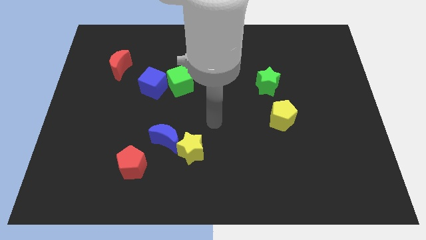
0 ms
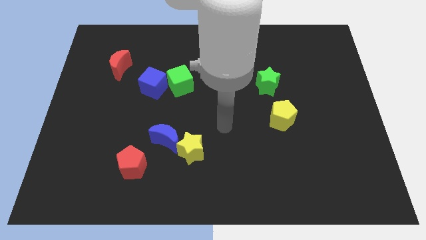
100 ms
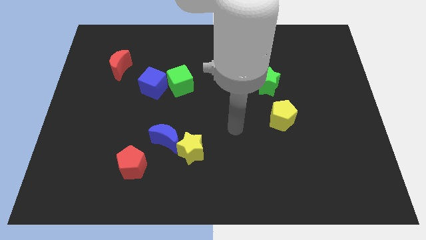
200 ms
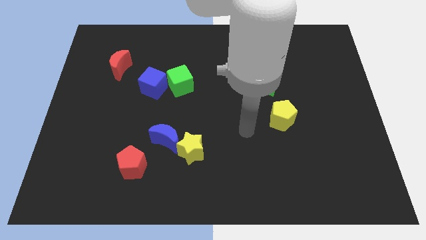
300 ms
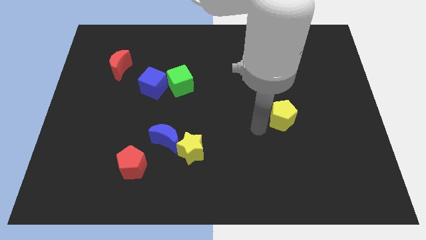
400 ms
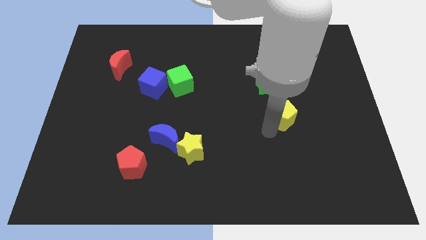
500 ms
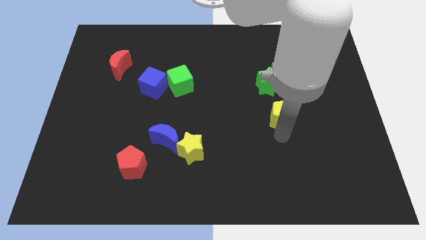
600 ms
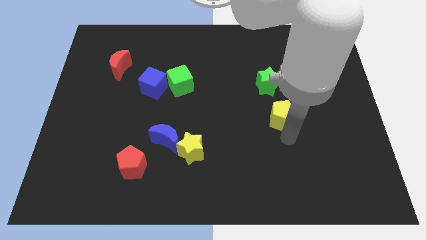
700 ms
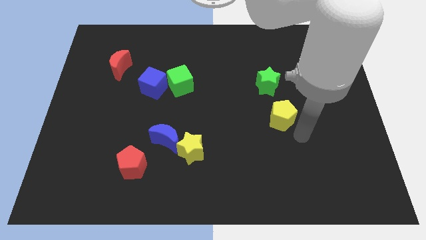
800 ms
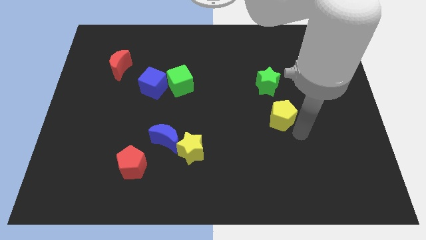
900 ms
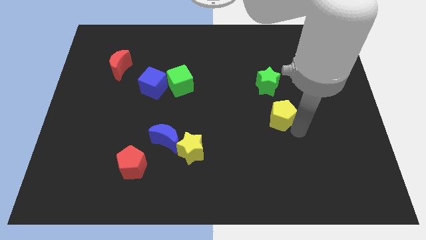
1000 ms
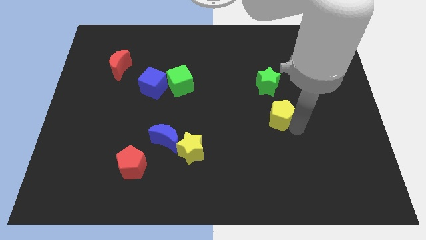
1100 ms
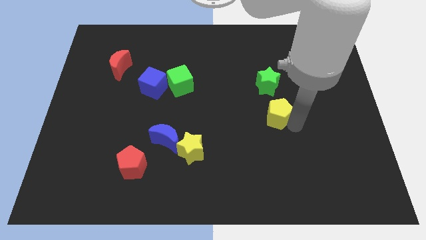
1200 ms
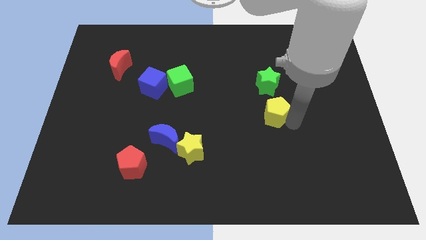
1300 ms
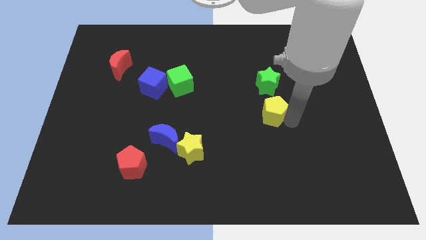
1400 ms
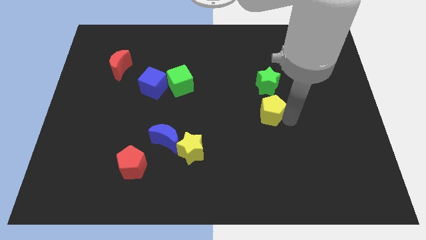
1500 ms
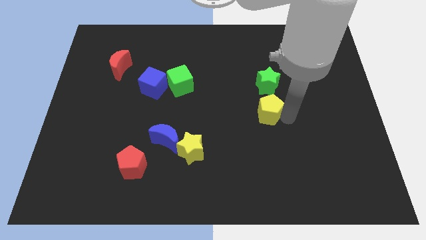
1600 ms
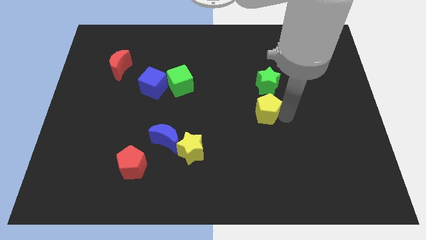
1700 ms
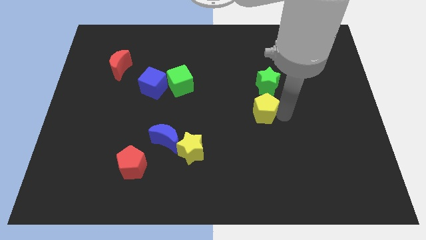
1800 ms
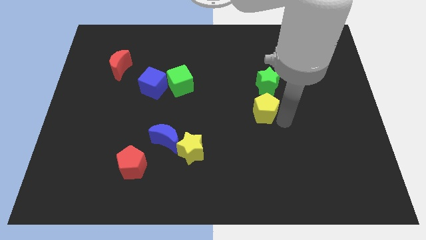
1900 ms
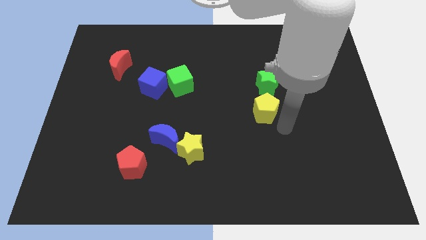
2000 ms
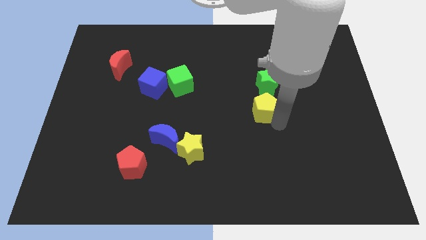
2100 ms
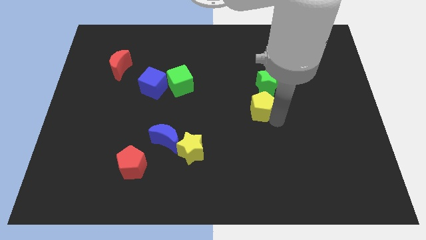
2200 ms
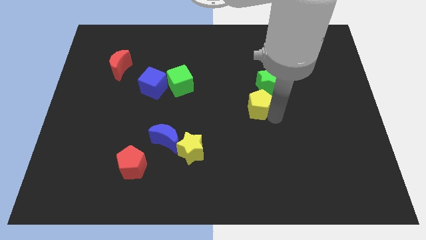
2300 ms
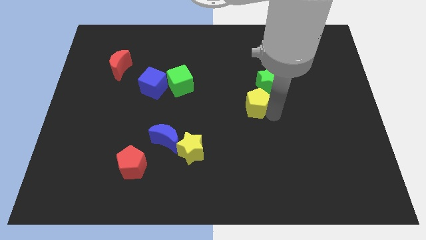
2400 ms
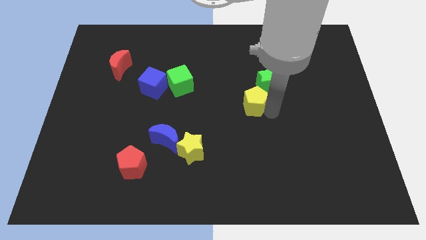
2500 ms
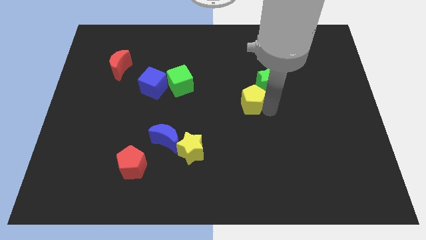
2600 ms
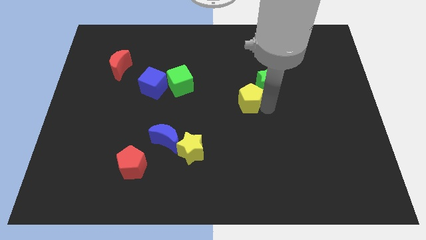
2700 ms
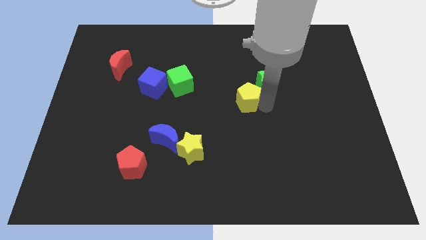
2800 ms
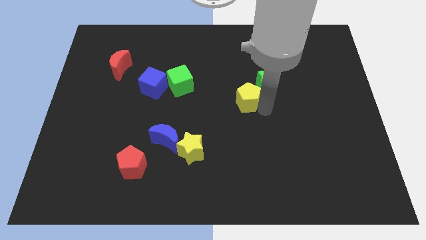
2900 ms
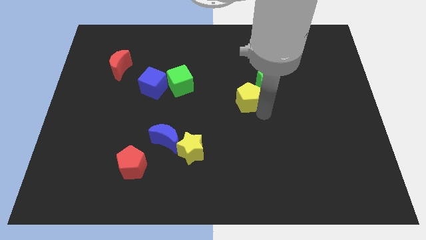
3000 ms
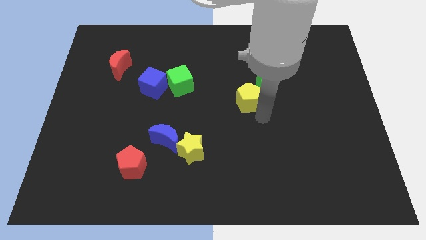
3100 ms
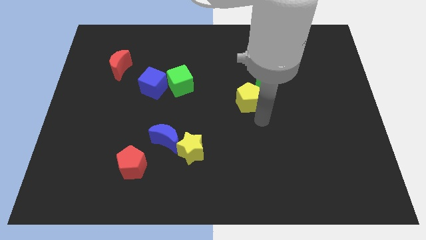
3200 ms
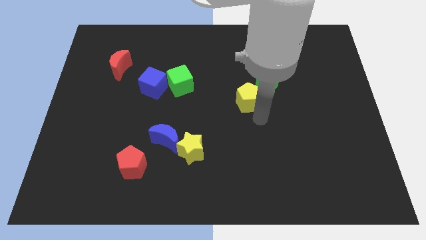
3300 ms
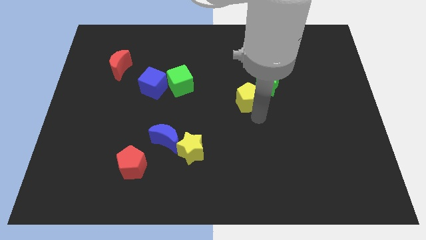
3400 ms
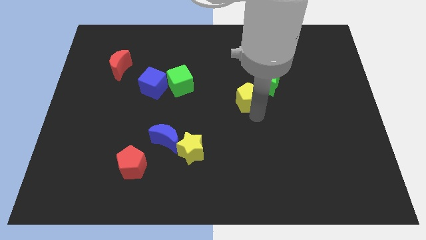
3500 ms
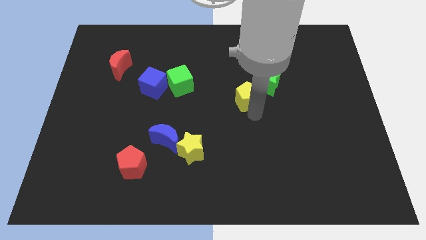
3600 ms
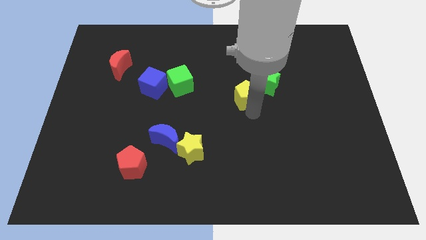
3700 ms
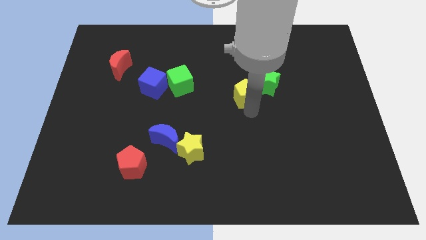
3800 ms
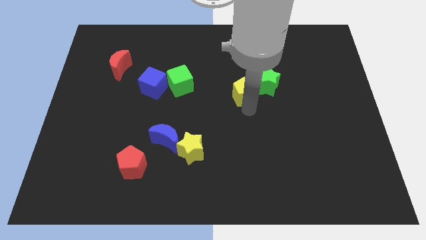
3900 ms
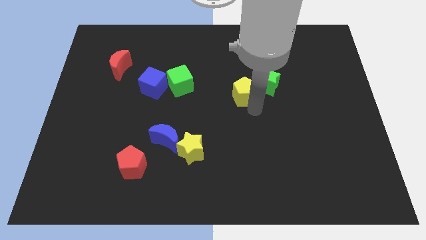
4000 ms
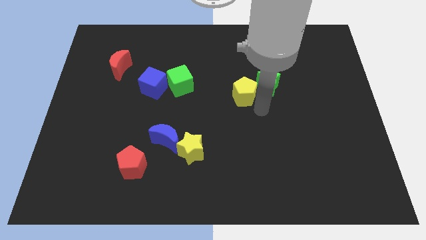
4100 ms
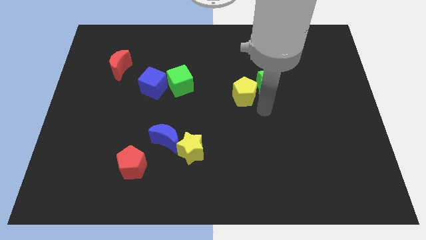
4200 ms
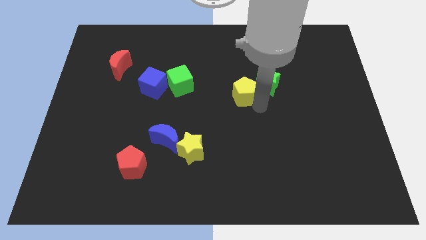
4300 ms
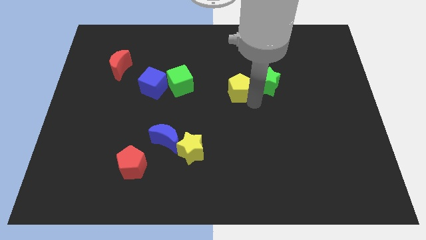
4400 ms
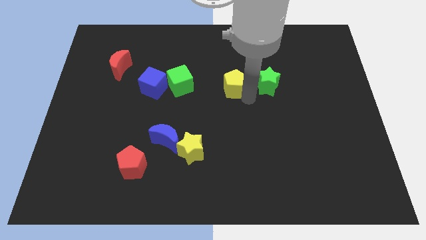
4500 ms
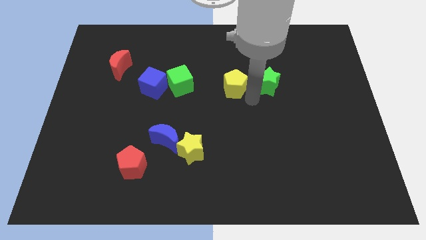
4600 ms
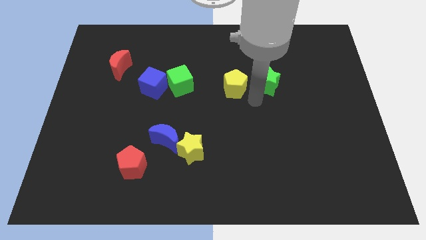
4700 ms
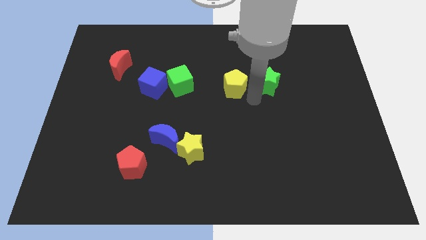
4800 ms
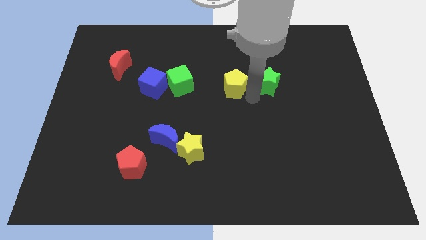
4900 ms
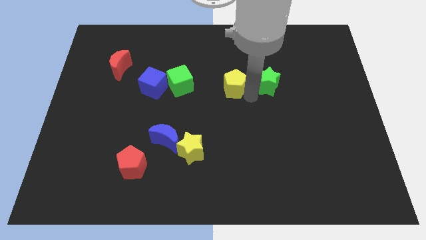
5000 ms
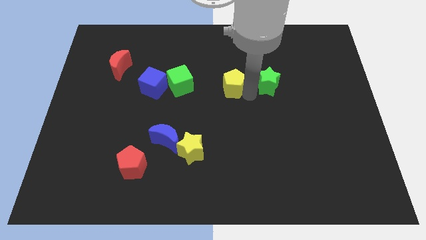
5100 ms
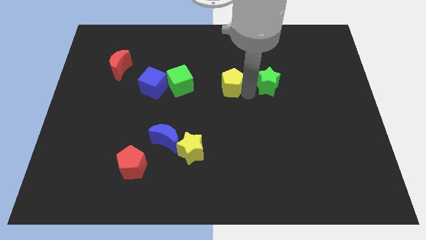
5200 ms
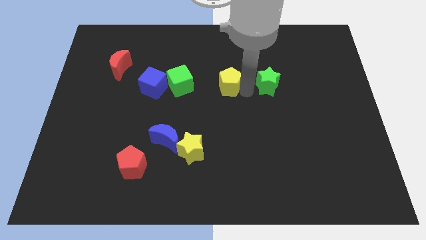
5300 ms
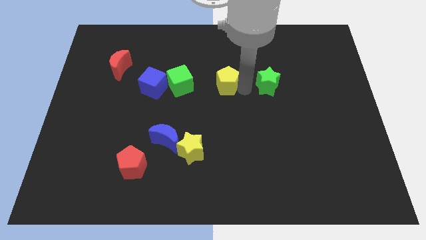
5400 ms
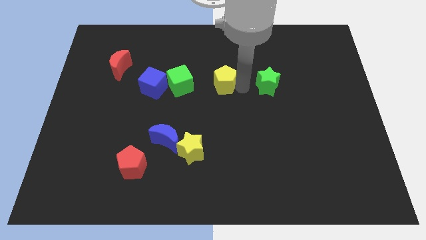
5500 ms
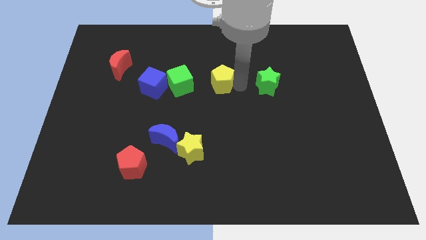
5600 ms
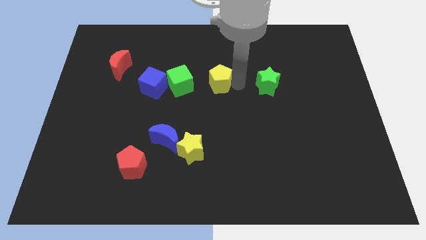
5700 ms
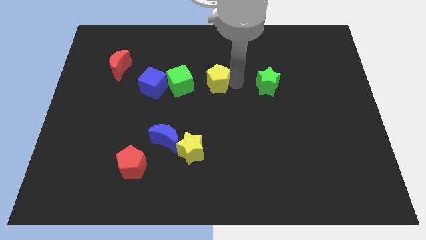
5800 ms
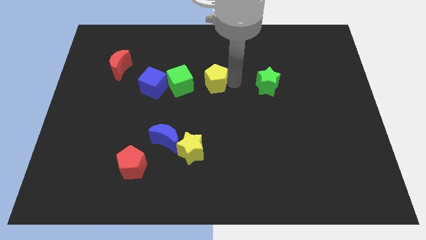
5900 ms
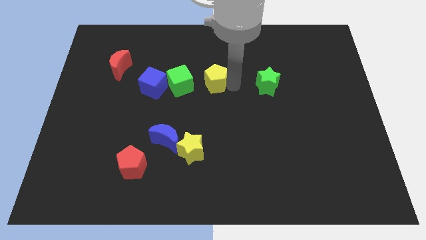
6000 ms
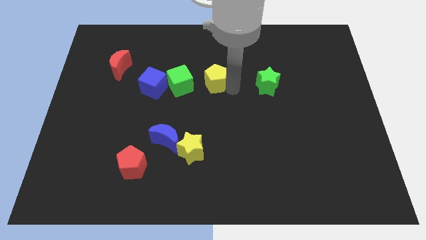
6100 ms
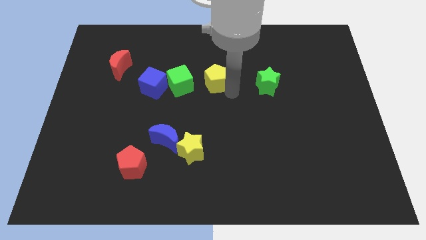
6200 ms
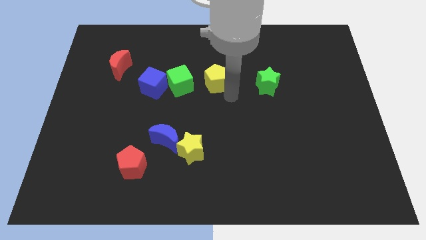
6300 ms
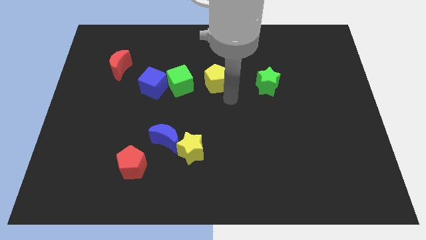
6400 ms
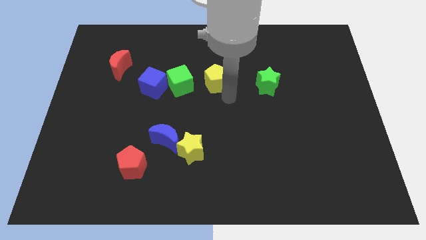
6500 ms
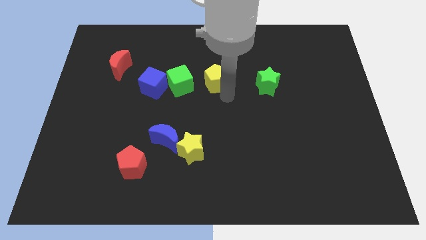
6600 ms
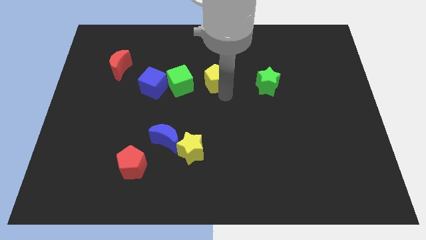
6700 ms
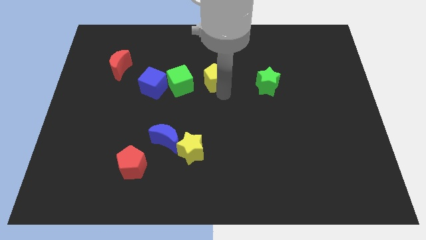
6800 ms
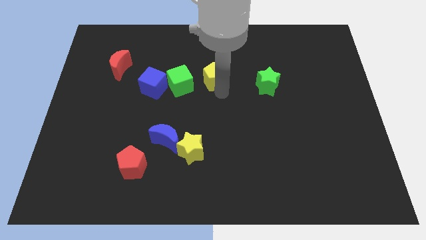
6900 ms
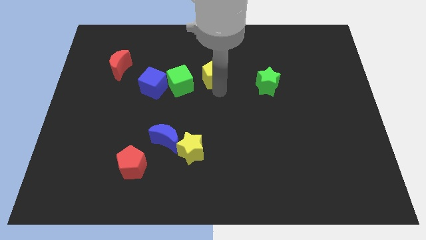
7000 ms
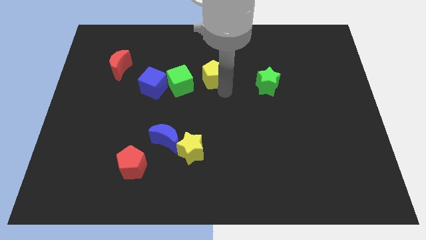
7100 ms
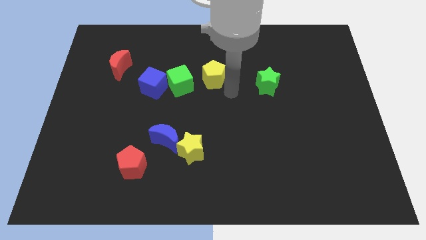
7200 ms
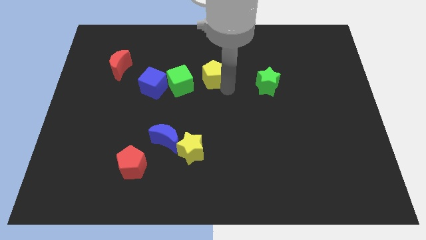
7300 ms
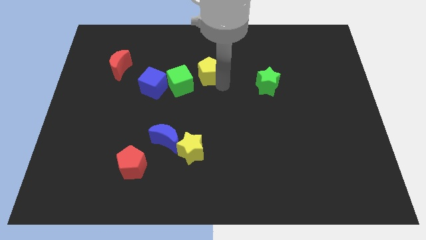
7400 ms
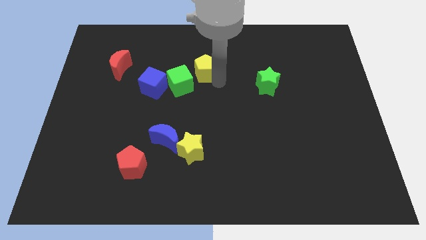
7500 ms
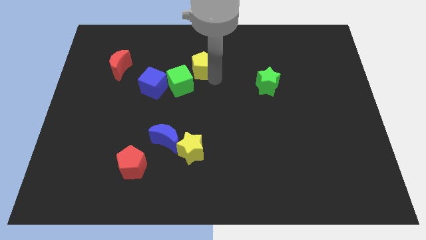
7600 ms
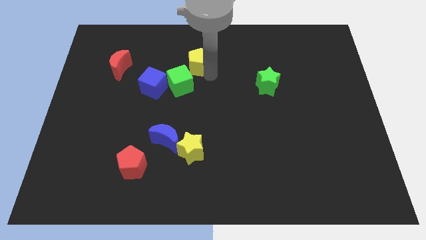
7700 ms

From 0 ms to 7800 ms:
push the yellow pentagon to the top of the green cube
